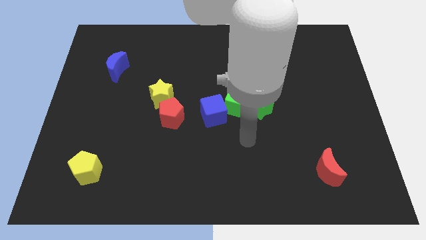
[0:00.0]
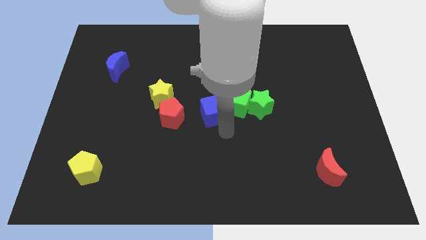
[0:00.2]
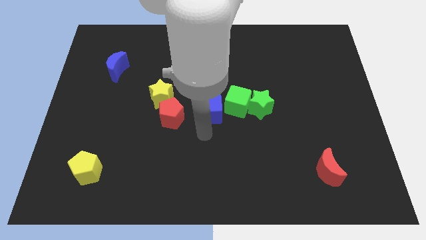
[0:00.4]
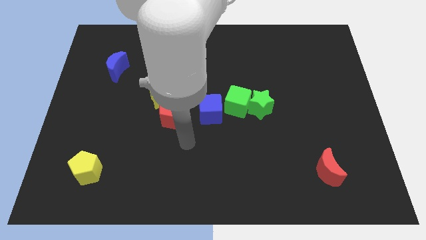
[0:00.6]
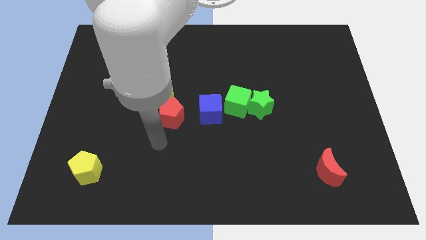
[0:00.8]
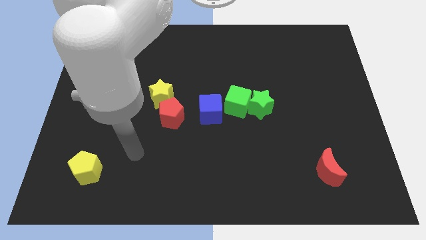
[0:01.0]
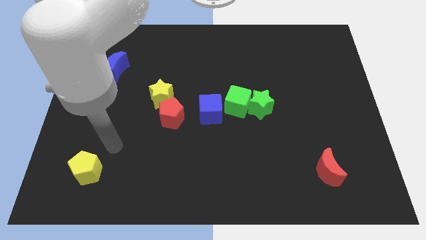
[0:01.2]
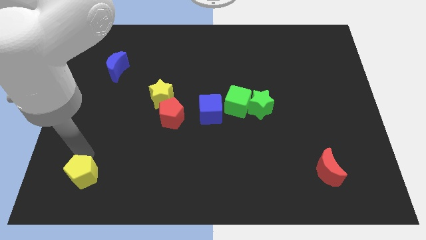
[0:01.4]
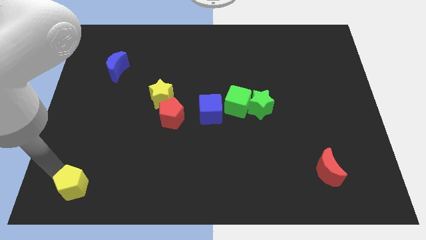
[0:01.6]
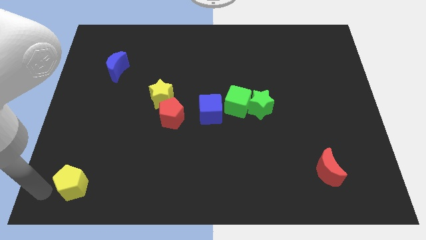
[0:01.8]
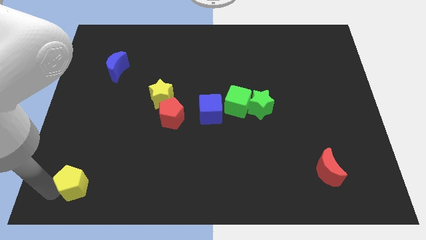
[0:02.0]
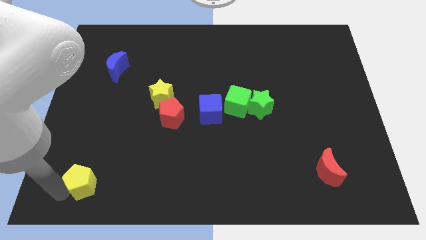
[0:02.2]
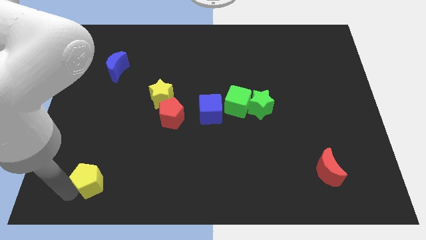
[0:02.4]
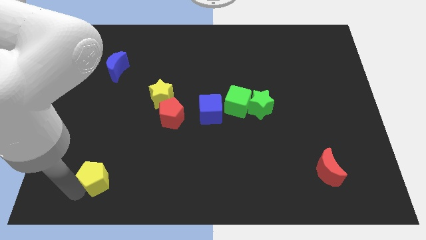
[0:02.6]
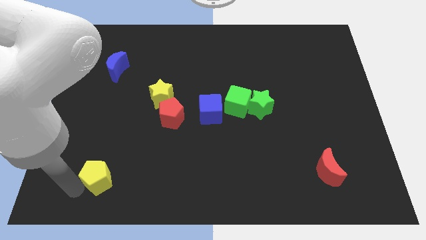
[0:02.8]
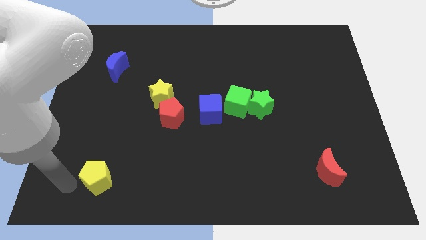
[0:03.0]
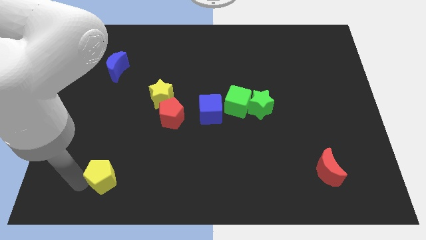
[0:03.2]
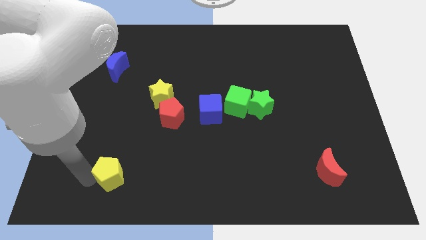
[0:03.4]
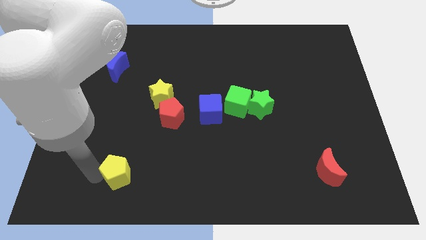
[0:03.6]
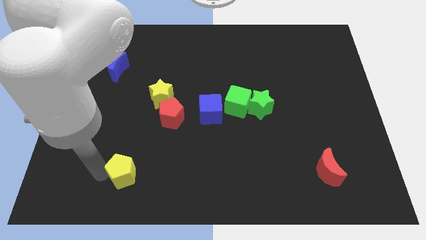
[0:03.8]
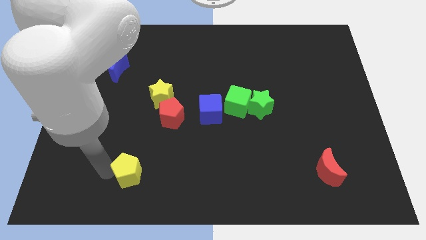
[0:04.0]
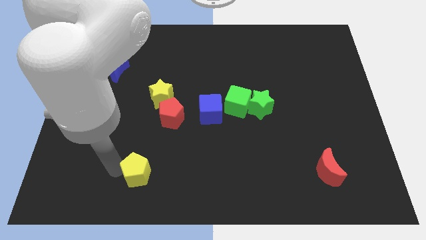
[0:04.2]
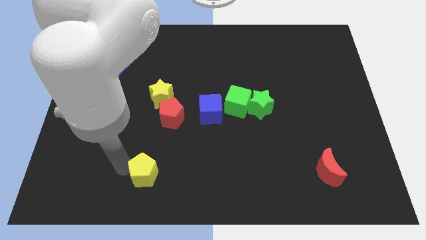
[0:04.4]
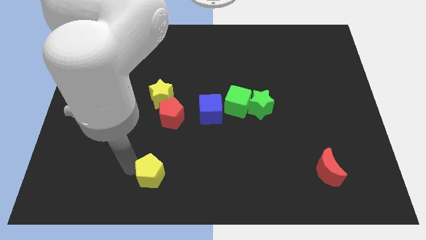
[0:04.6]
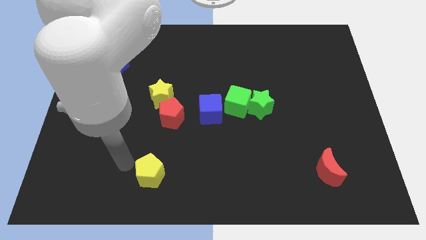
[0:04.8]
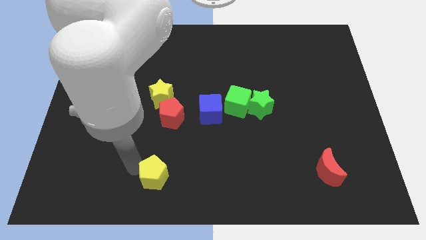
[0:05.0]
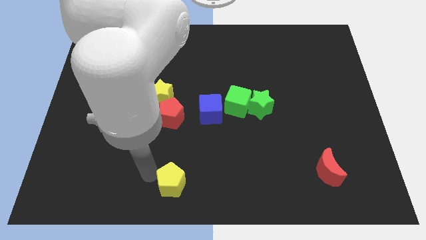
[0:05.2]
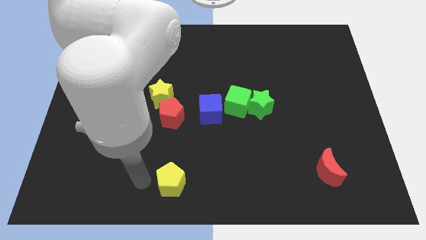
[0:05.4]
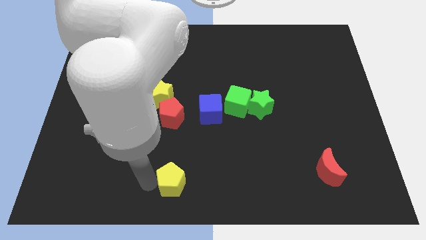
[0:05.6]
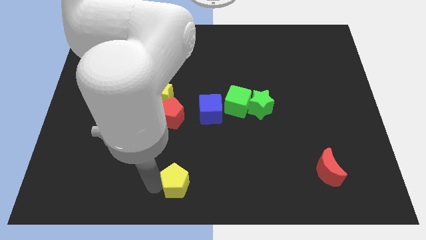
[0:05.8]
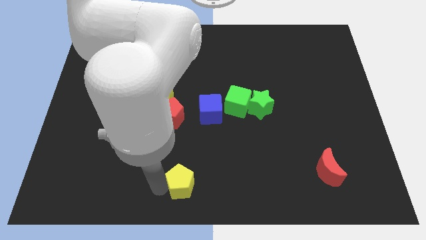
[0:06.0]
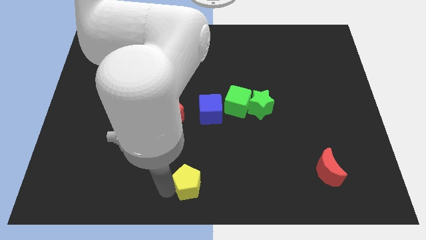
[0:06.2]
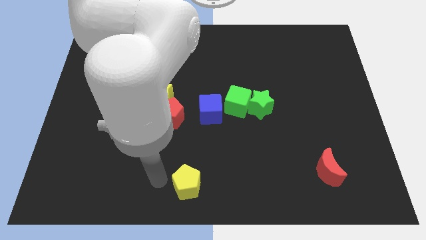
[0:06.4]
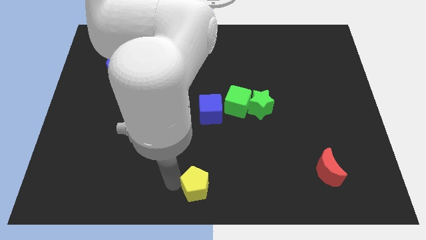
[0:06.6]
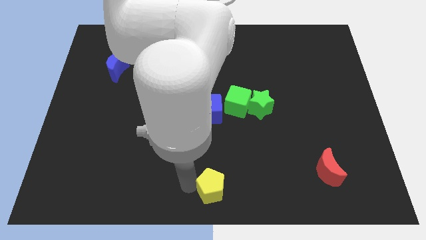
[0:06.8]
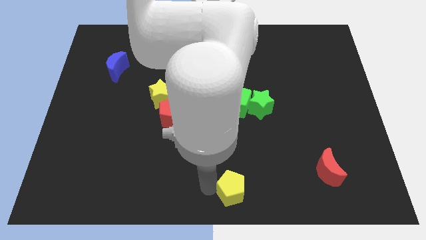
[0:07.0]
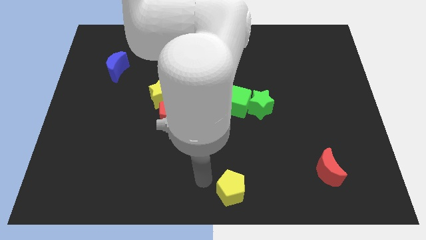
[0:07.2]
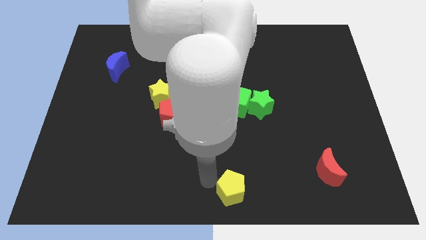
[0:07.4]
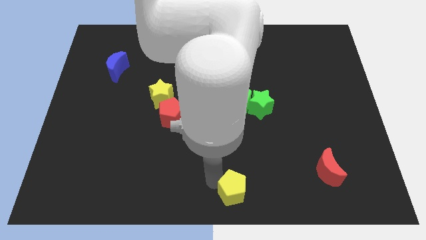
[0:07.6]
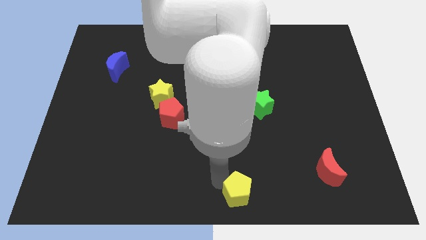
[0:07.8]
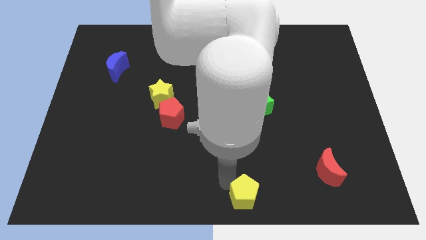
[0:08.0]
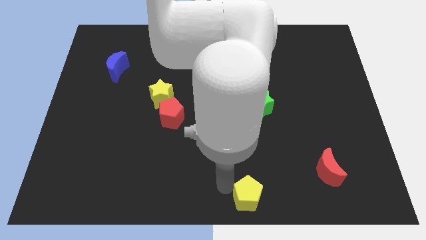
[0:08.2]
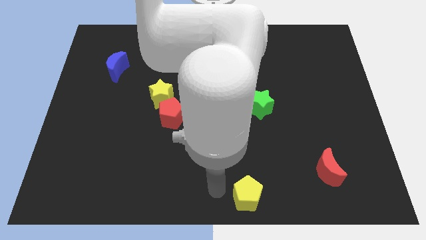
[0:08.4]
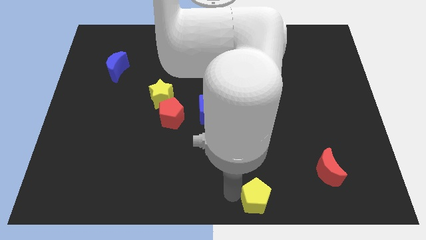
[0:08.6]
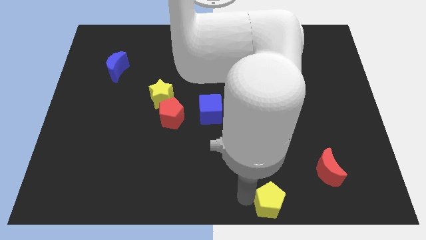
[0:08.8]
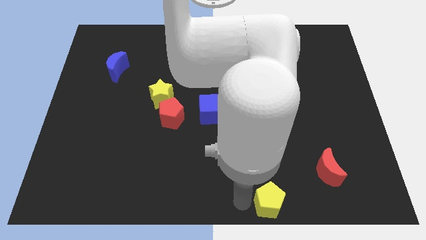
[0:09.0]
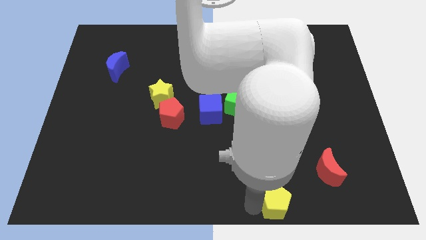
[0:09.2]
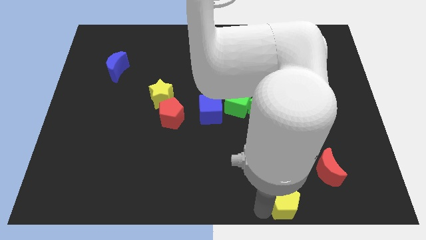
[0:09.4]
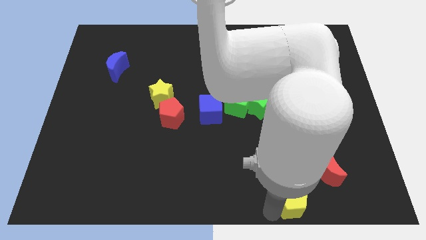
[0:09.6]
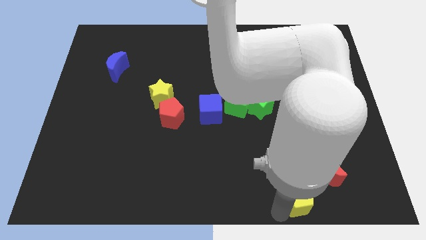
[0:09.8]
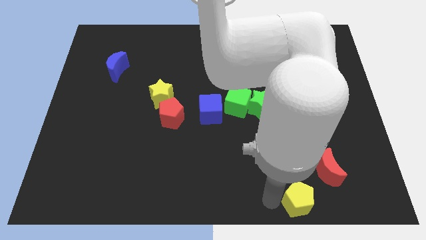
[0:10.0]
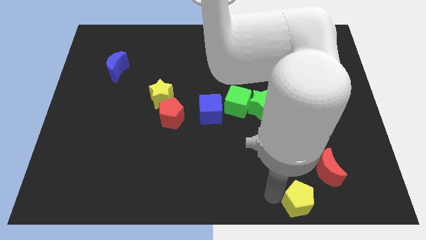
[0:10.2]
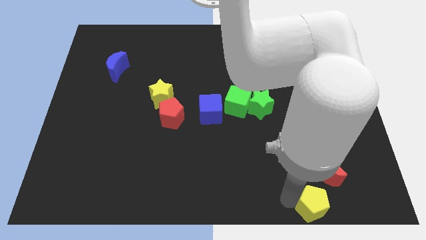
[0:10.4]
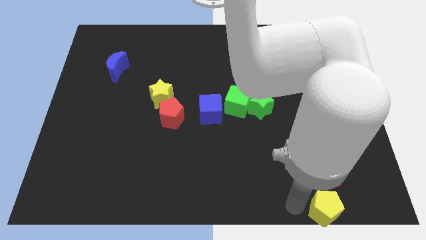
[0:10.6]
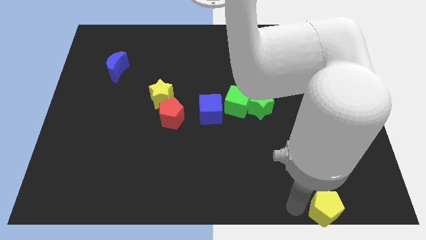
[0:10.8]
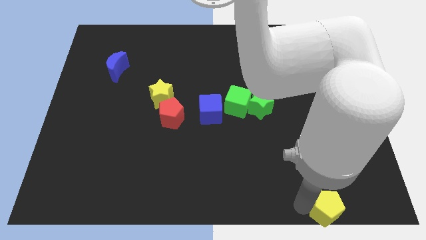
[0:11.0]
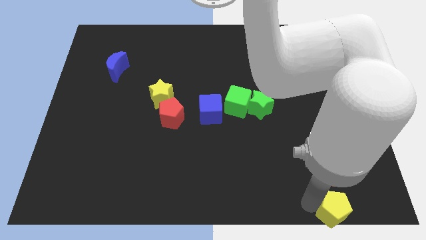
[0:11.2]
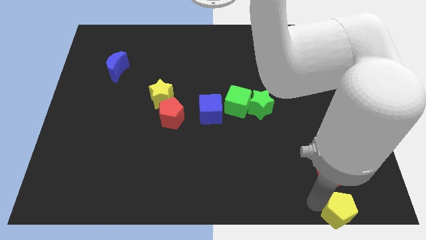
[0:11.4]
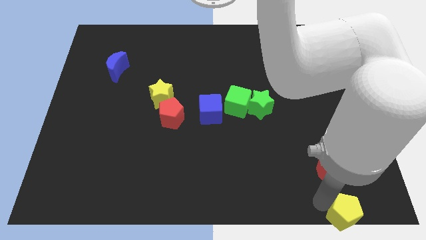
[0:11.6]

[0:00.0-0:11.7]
slide the yellow pentagon to the bottom right

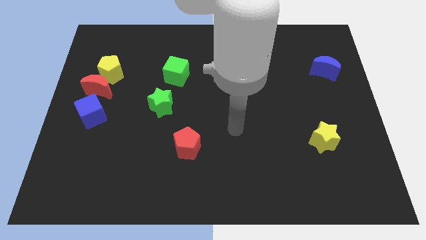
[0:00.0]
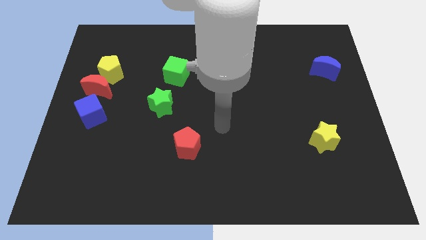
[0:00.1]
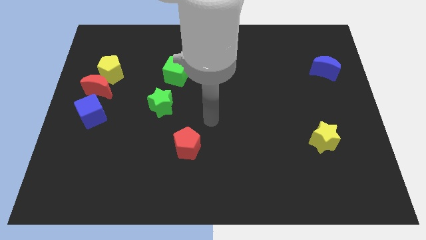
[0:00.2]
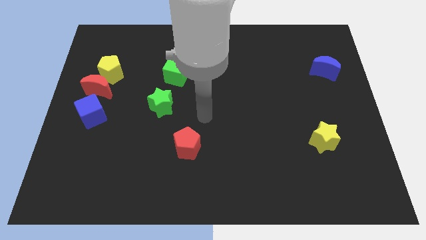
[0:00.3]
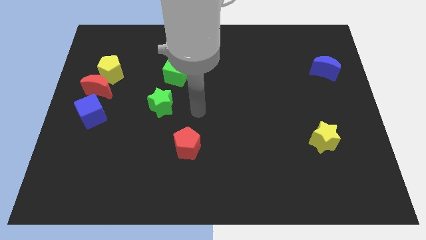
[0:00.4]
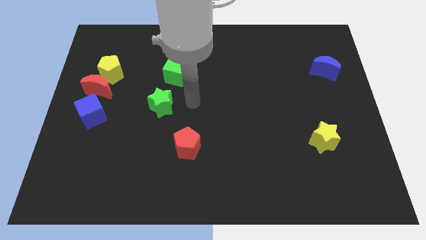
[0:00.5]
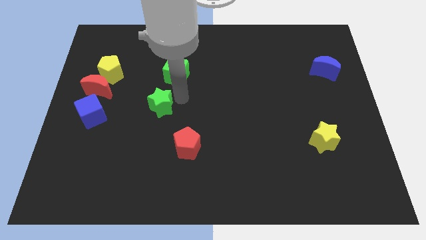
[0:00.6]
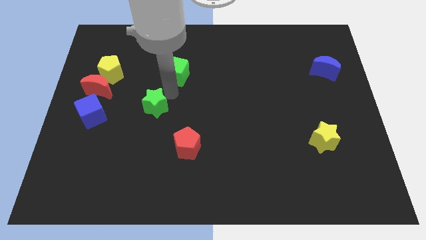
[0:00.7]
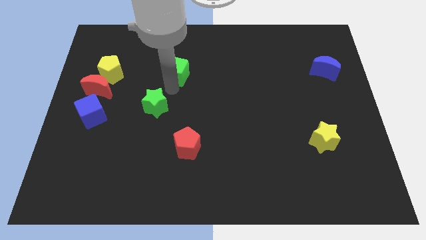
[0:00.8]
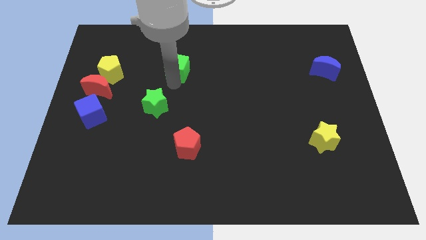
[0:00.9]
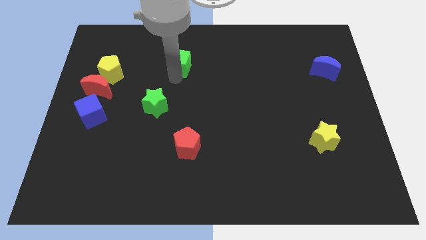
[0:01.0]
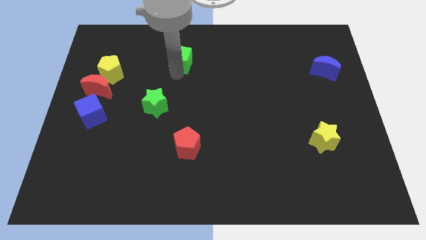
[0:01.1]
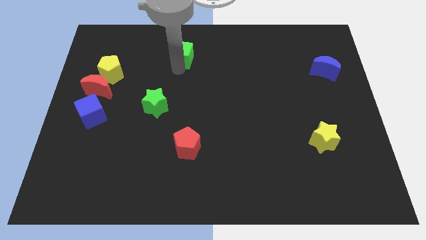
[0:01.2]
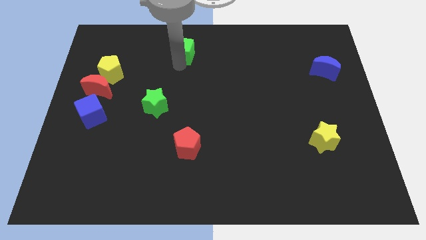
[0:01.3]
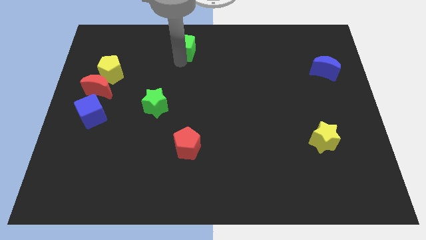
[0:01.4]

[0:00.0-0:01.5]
push the green cube to the towards your base
